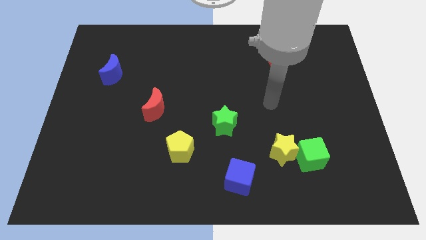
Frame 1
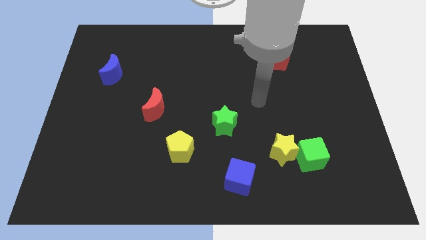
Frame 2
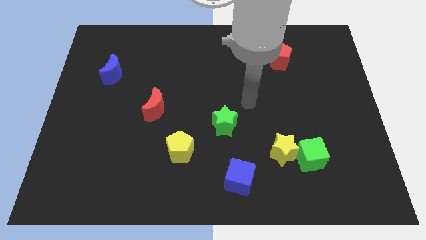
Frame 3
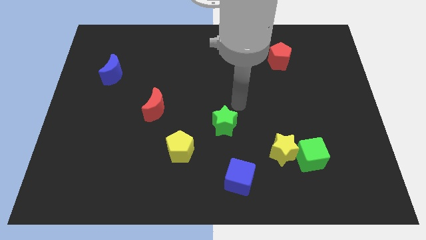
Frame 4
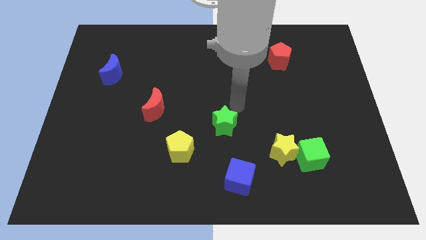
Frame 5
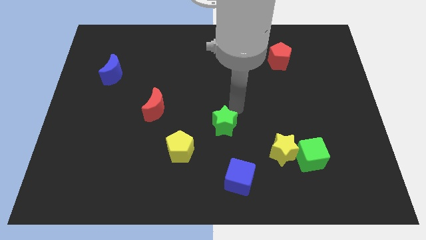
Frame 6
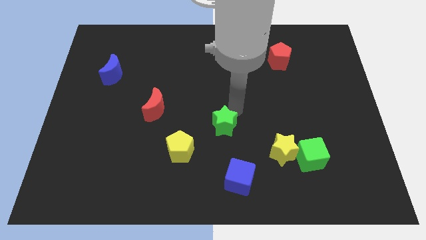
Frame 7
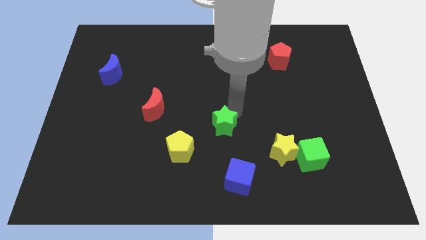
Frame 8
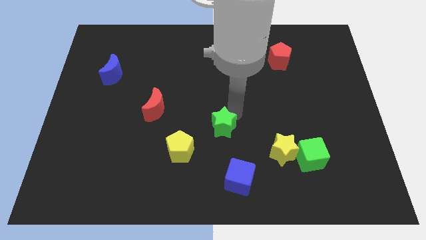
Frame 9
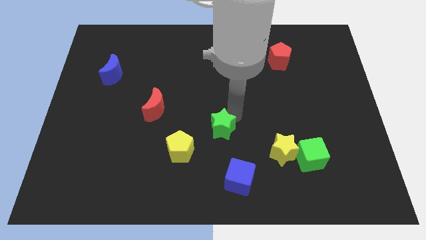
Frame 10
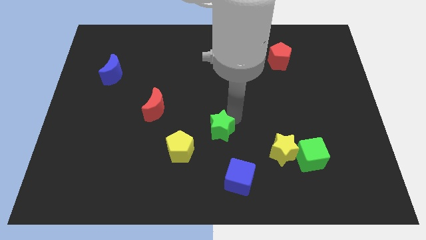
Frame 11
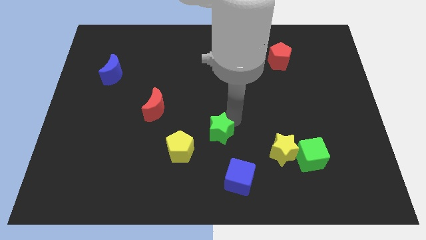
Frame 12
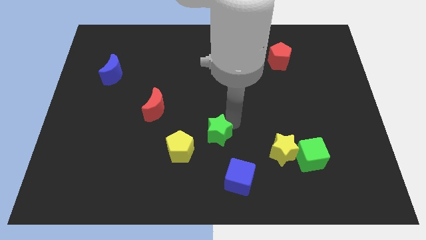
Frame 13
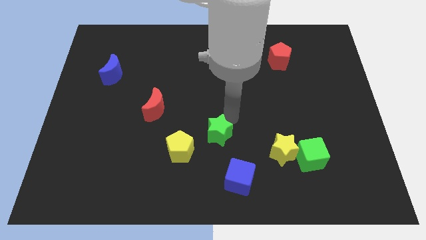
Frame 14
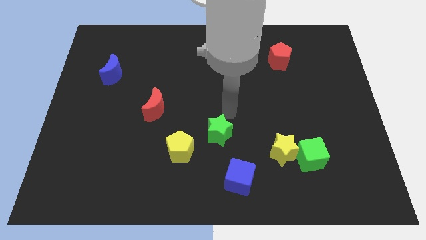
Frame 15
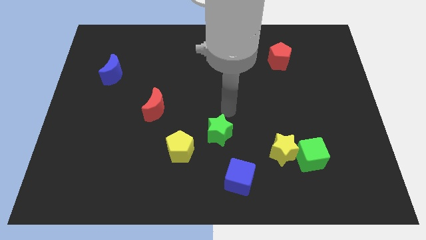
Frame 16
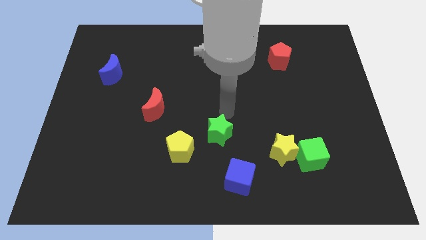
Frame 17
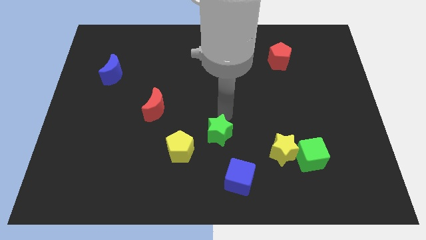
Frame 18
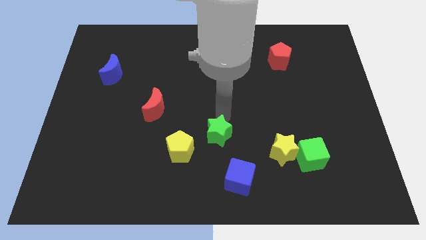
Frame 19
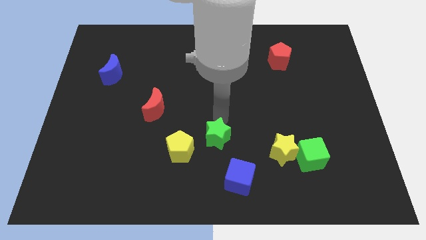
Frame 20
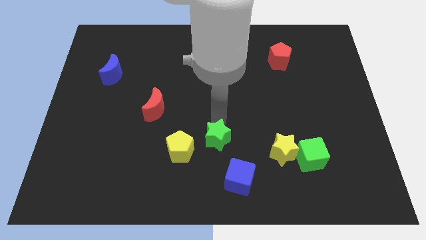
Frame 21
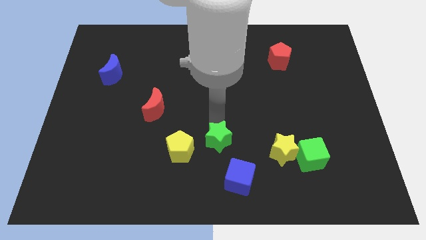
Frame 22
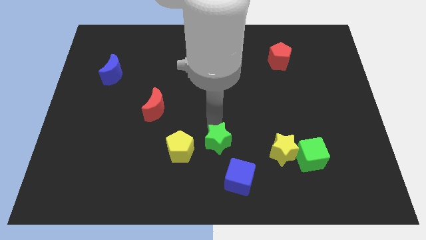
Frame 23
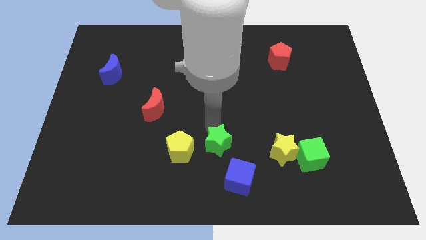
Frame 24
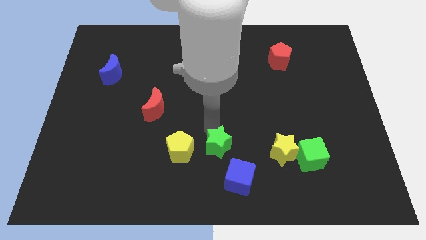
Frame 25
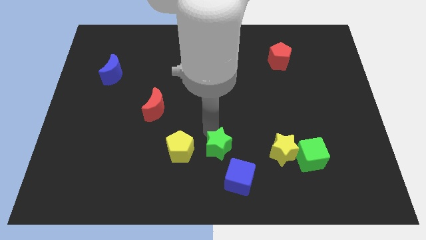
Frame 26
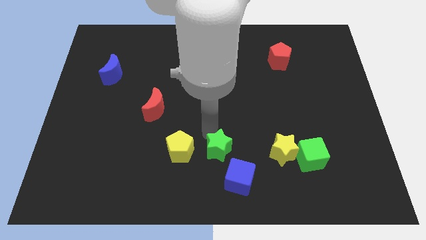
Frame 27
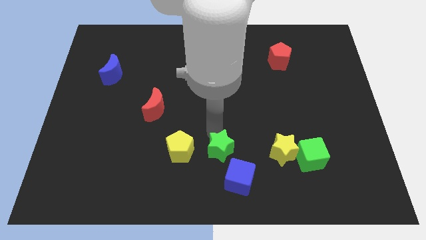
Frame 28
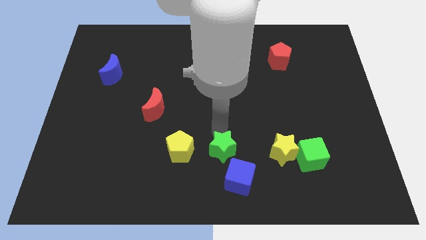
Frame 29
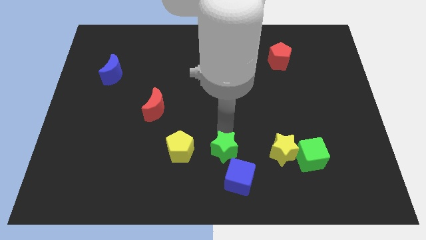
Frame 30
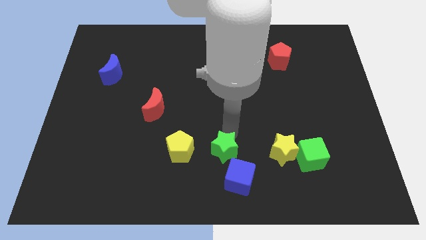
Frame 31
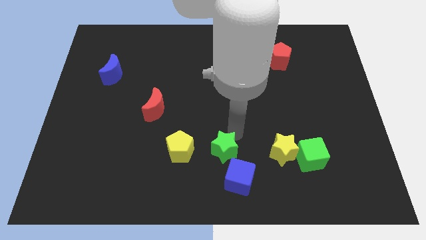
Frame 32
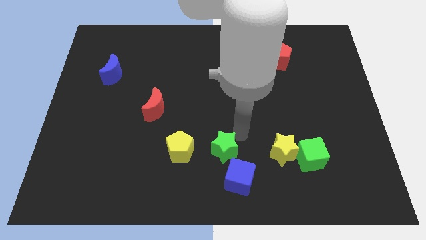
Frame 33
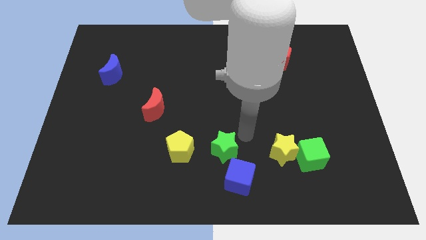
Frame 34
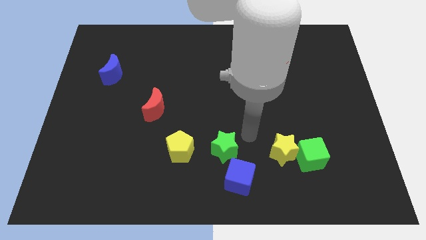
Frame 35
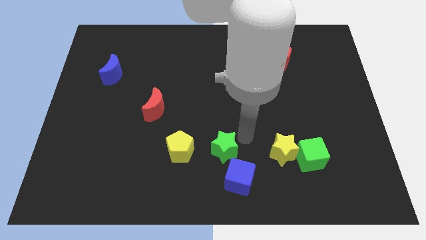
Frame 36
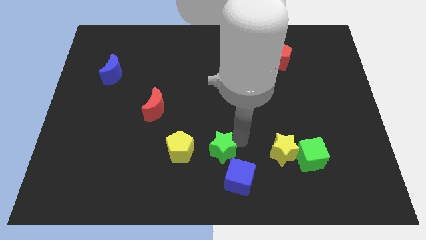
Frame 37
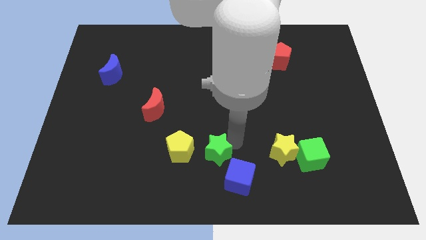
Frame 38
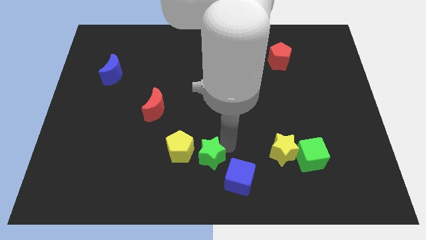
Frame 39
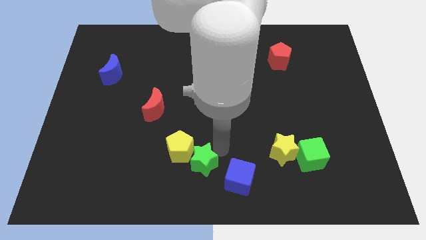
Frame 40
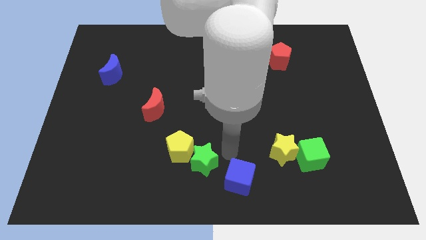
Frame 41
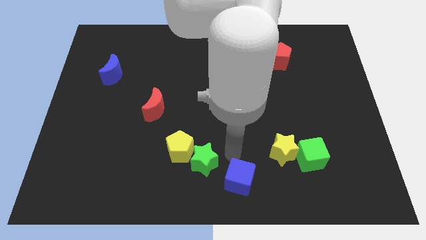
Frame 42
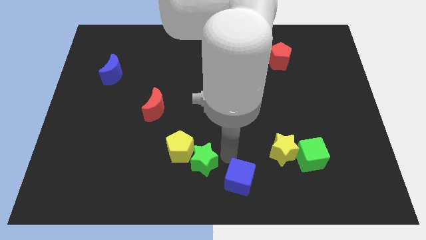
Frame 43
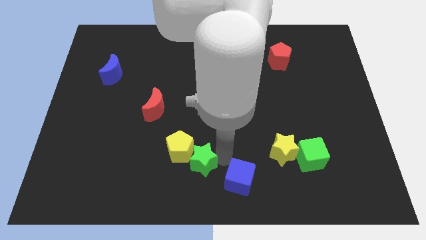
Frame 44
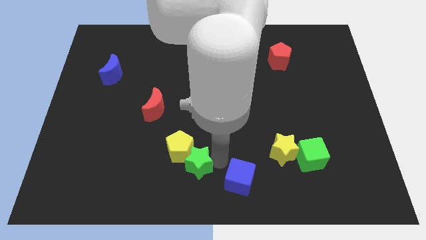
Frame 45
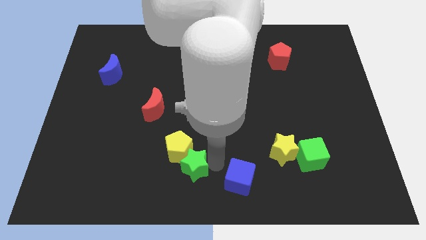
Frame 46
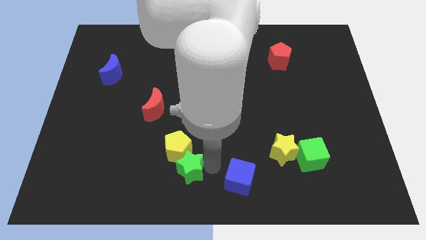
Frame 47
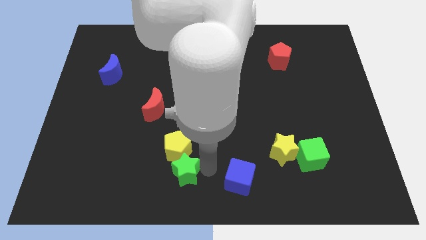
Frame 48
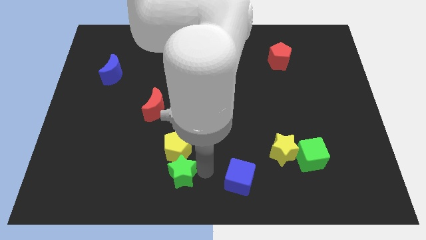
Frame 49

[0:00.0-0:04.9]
push the green star to the bottom left side of the yellow pentagon

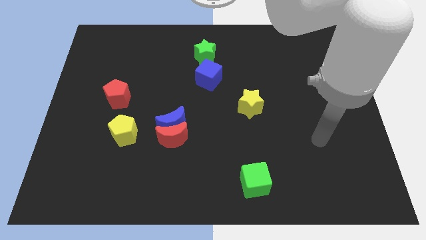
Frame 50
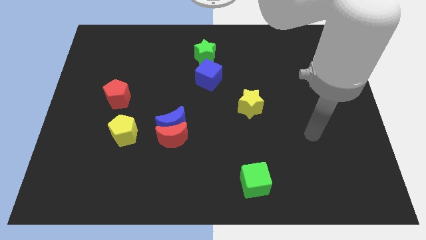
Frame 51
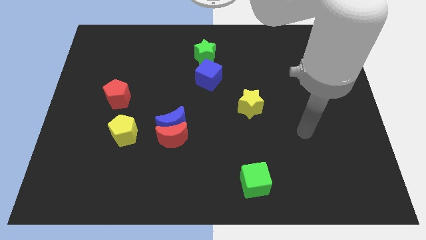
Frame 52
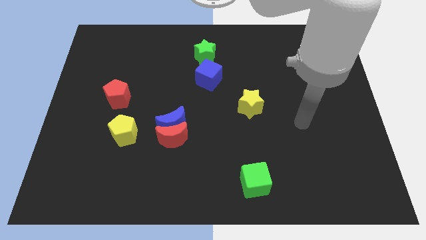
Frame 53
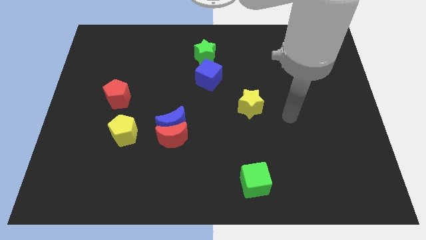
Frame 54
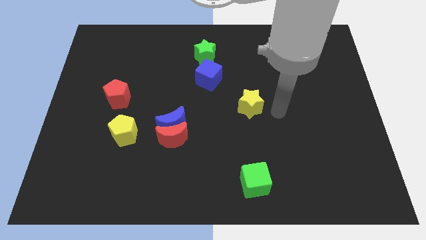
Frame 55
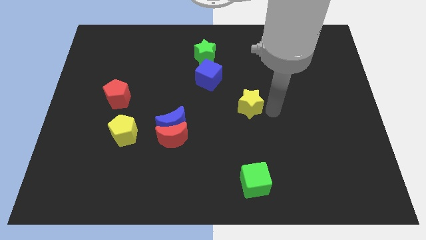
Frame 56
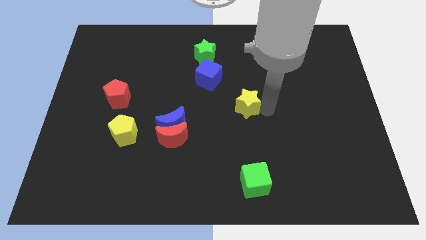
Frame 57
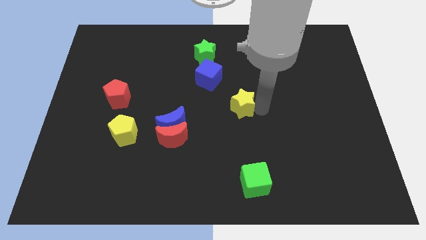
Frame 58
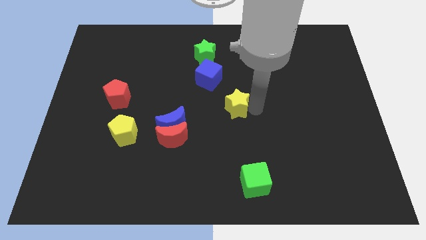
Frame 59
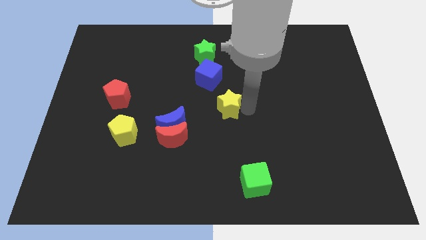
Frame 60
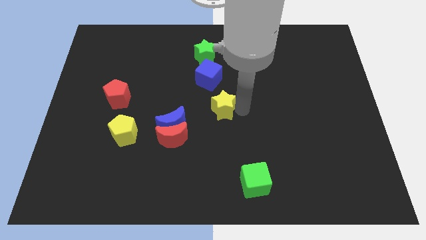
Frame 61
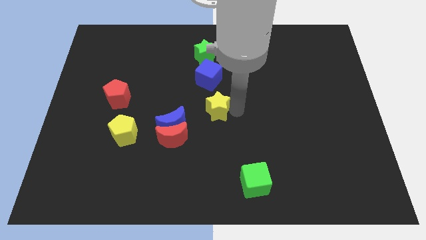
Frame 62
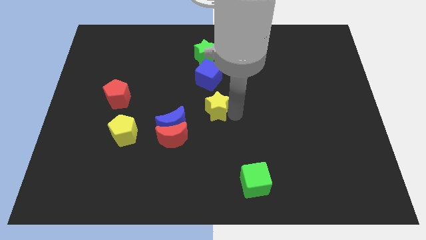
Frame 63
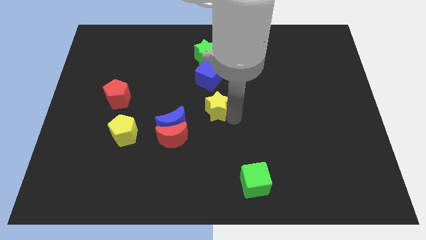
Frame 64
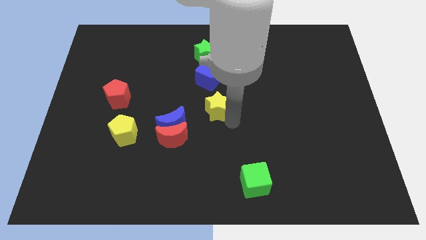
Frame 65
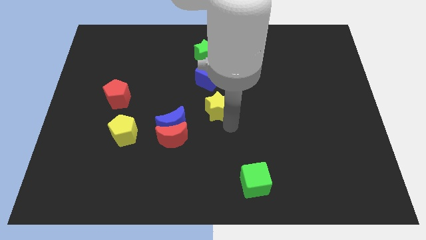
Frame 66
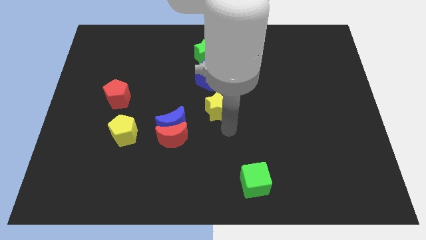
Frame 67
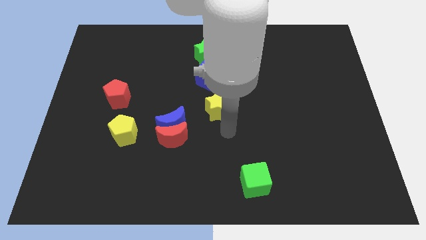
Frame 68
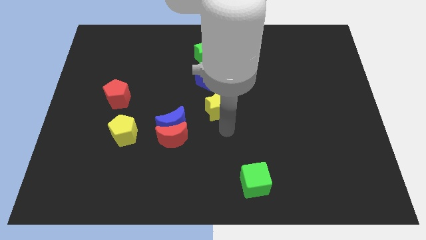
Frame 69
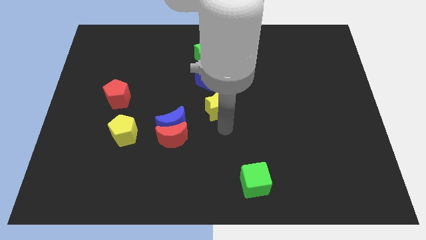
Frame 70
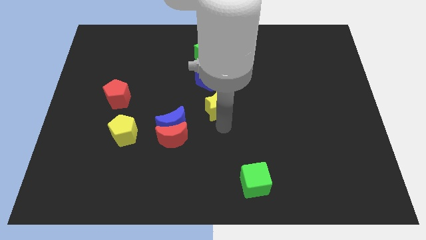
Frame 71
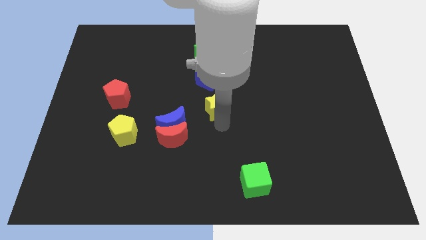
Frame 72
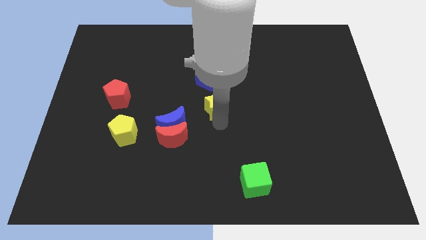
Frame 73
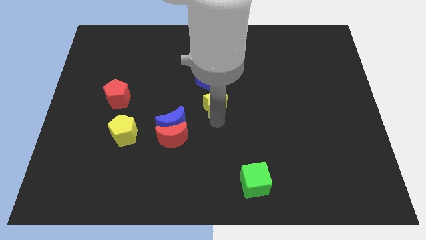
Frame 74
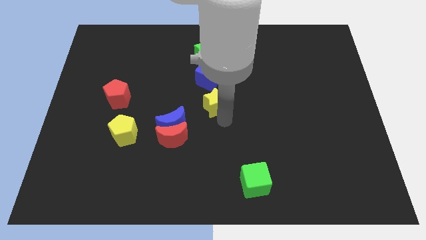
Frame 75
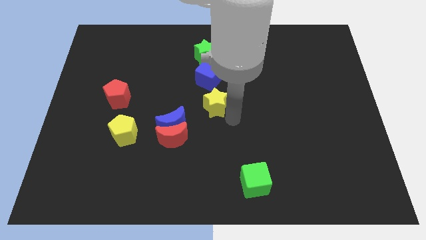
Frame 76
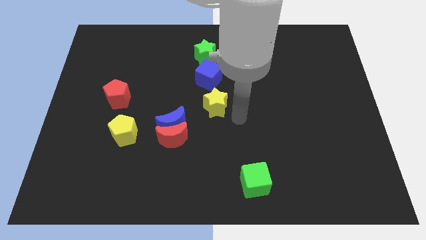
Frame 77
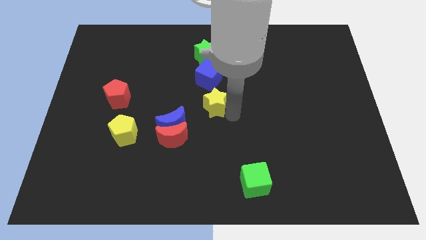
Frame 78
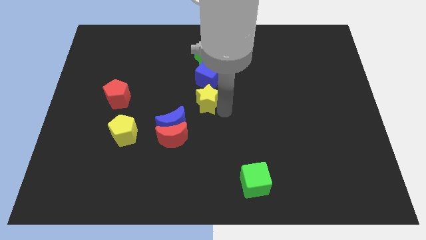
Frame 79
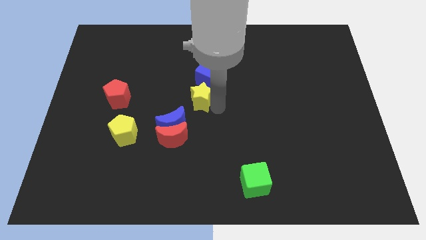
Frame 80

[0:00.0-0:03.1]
move the yellow star diagonally down and to the left of the blue cube
